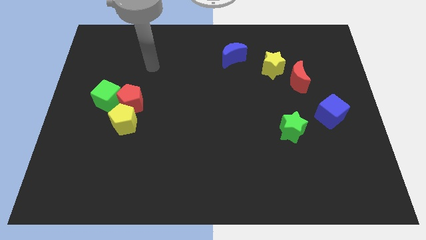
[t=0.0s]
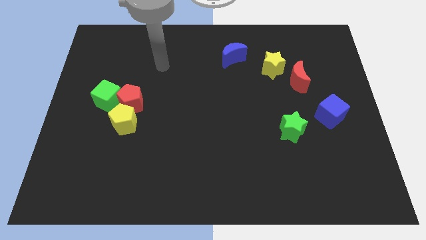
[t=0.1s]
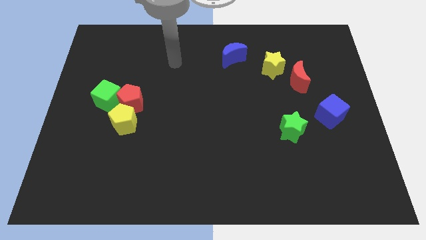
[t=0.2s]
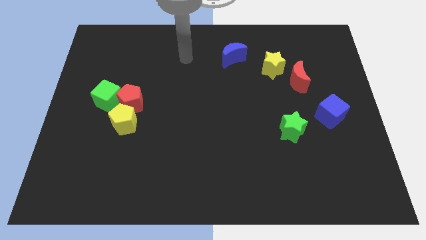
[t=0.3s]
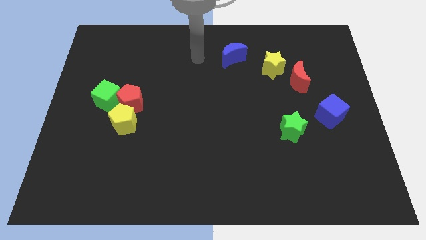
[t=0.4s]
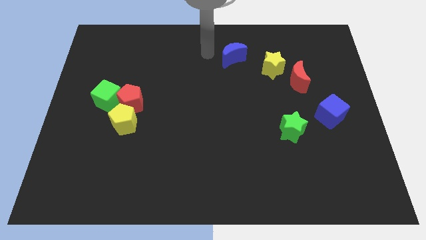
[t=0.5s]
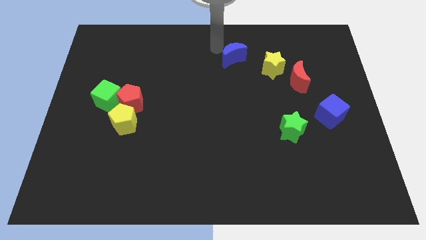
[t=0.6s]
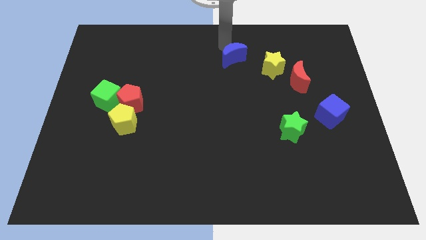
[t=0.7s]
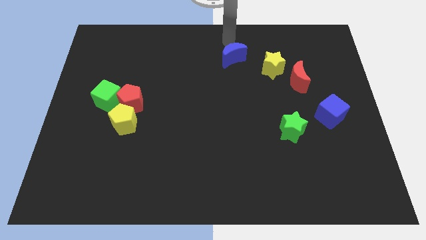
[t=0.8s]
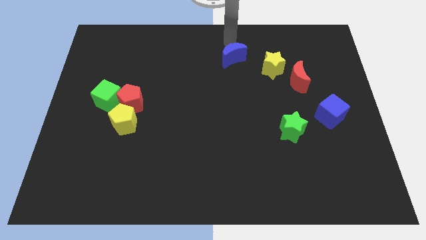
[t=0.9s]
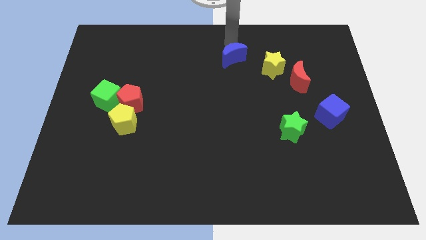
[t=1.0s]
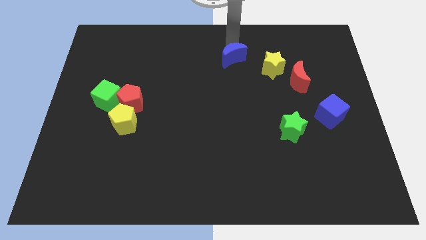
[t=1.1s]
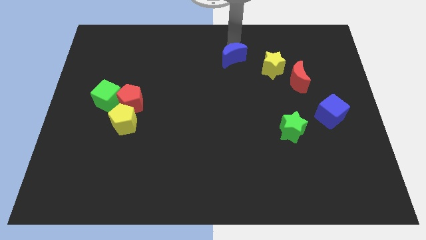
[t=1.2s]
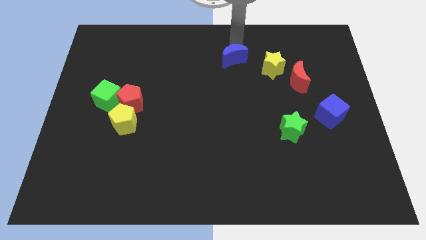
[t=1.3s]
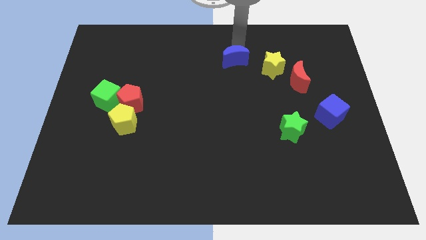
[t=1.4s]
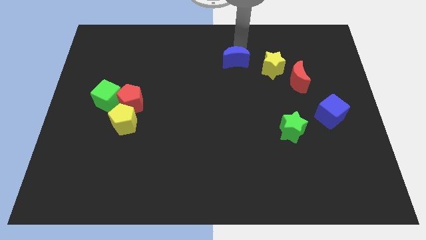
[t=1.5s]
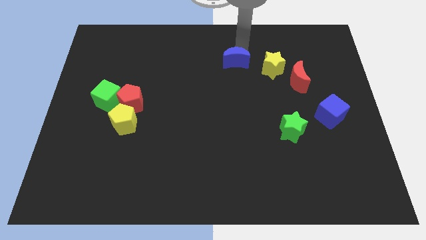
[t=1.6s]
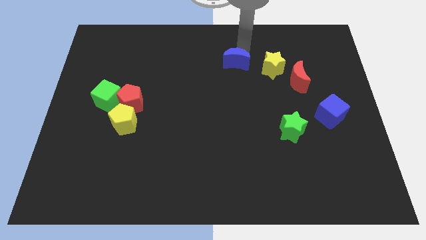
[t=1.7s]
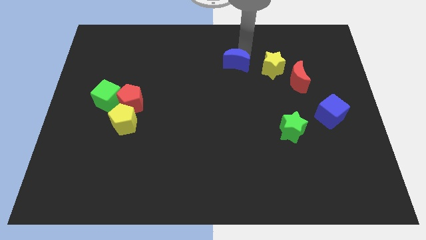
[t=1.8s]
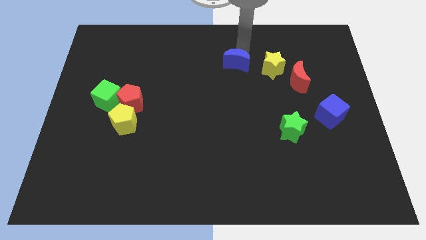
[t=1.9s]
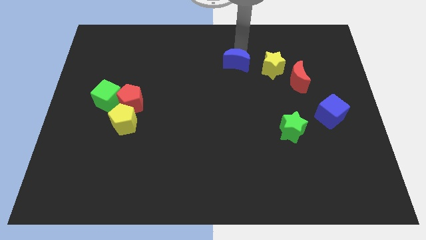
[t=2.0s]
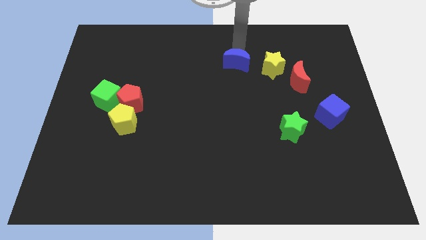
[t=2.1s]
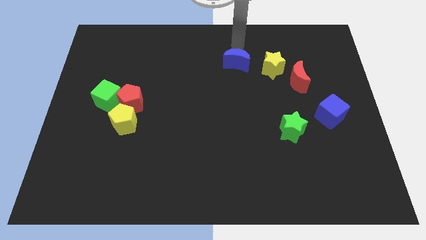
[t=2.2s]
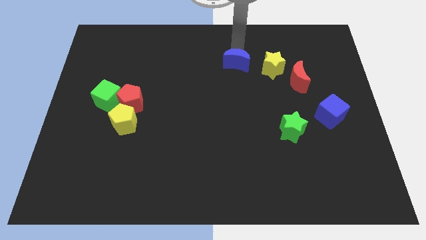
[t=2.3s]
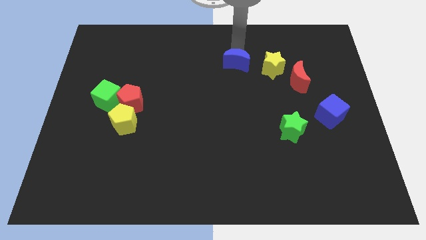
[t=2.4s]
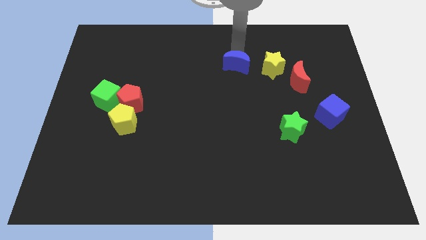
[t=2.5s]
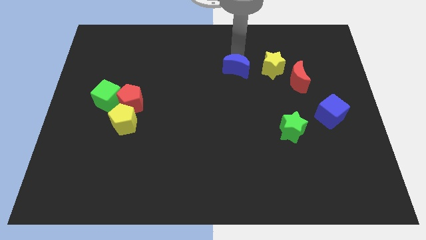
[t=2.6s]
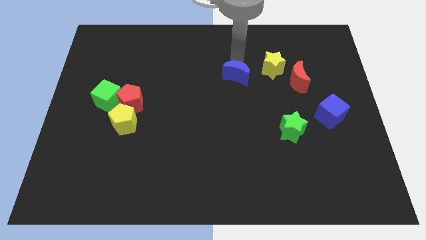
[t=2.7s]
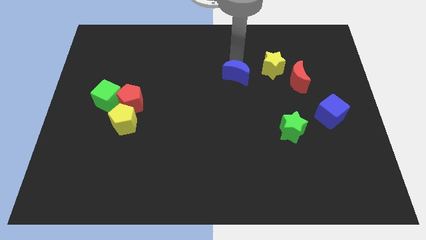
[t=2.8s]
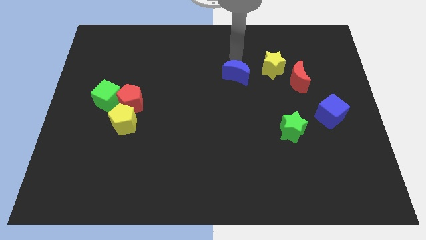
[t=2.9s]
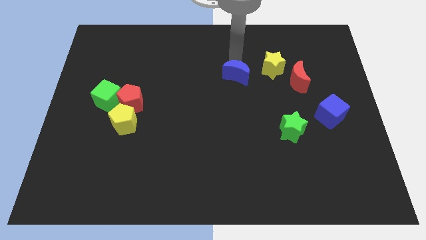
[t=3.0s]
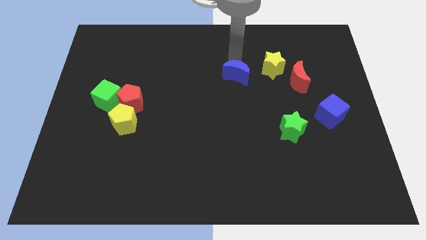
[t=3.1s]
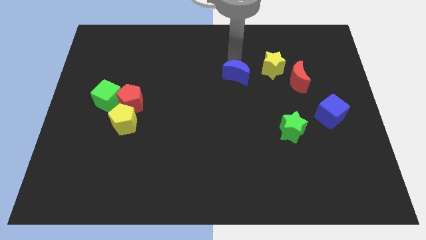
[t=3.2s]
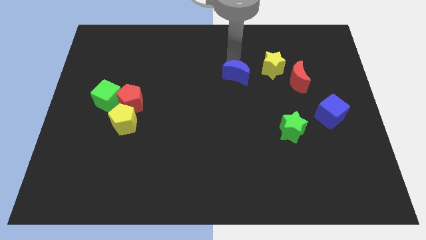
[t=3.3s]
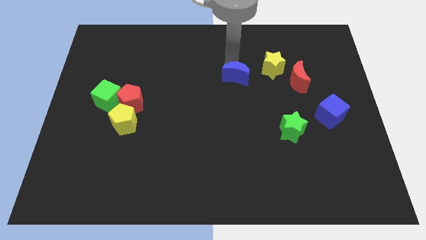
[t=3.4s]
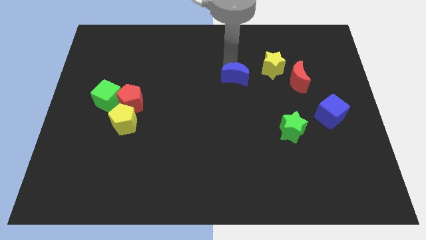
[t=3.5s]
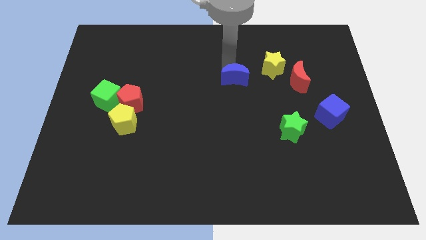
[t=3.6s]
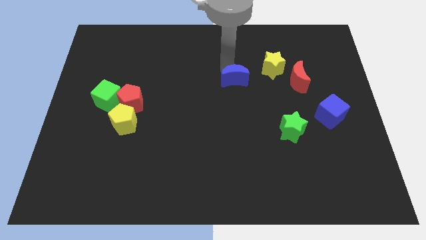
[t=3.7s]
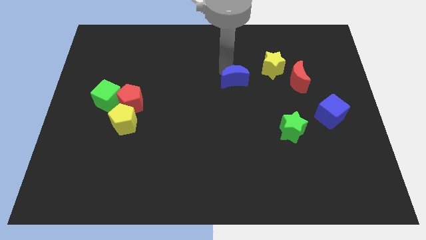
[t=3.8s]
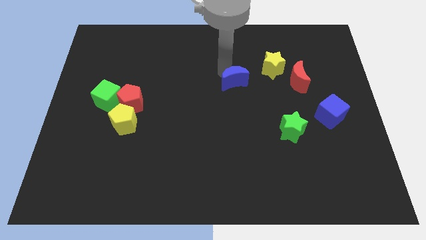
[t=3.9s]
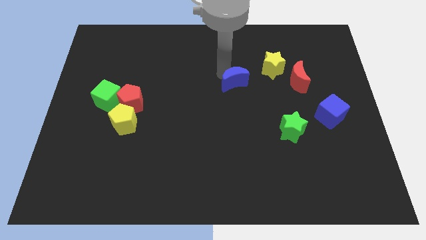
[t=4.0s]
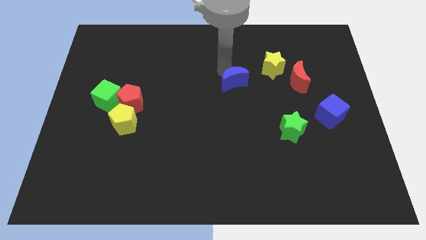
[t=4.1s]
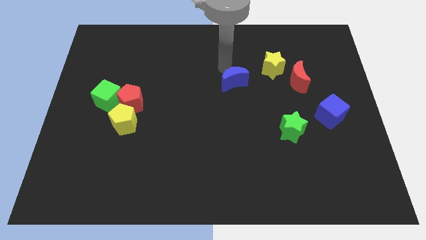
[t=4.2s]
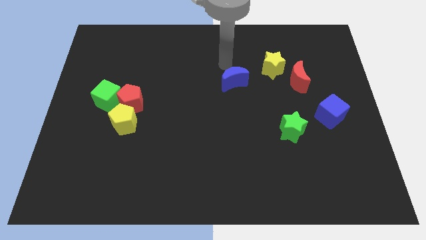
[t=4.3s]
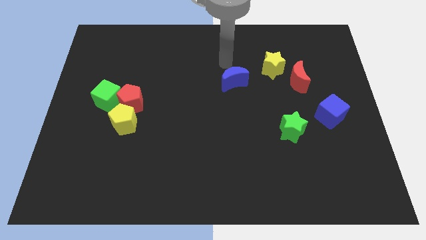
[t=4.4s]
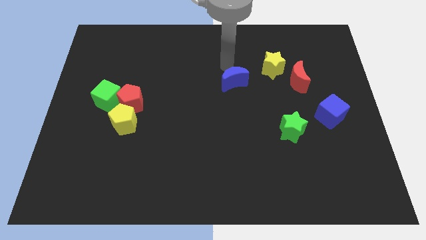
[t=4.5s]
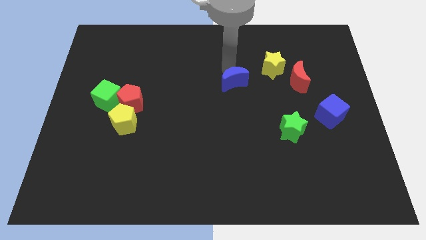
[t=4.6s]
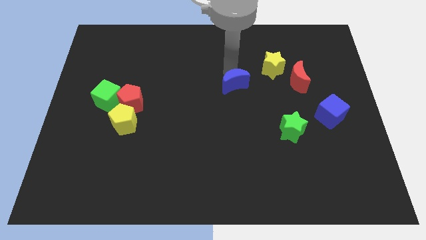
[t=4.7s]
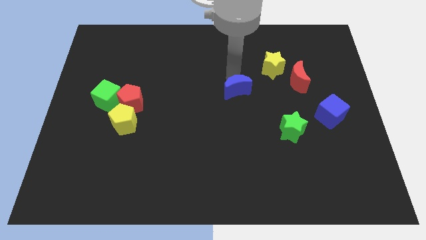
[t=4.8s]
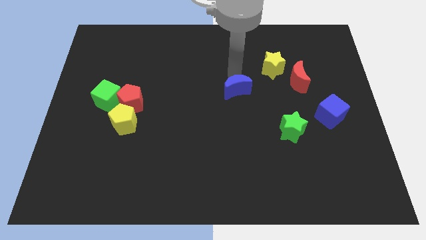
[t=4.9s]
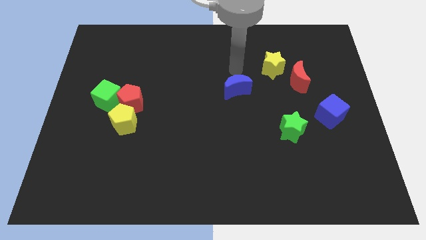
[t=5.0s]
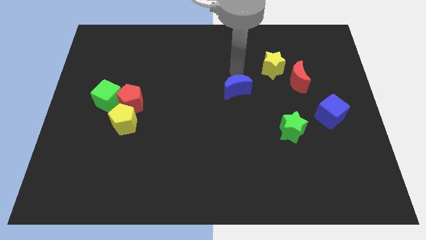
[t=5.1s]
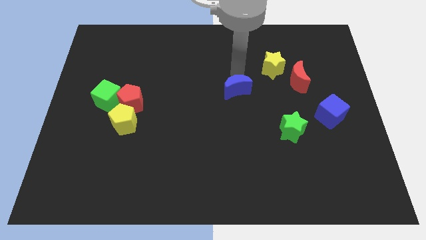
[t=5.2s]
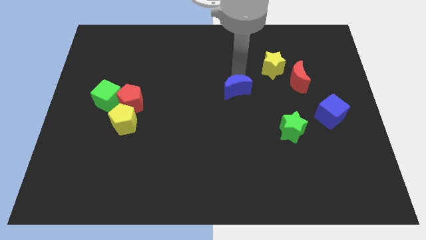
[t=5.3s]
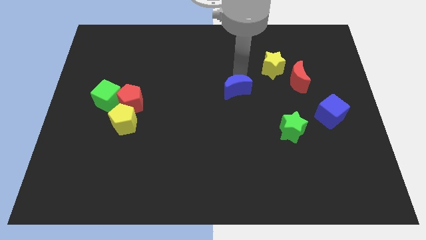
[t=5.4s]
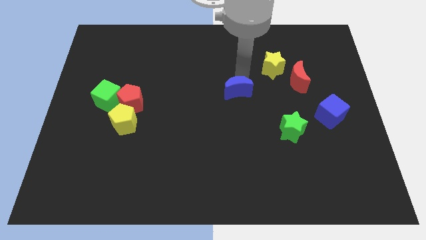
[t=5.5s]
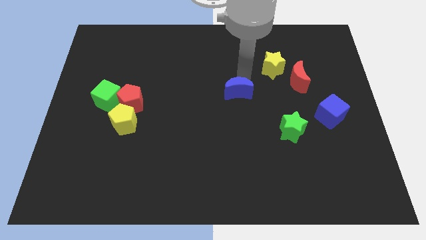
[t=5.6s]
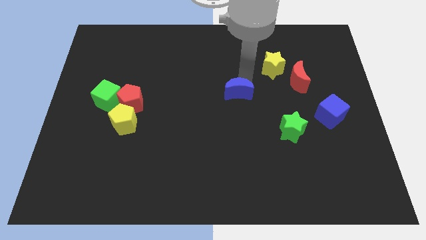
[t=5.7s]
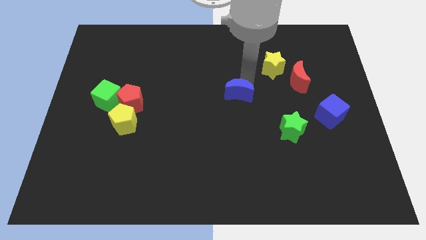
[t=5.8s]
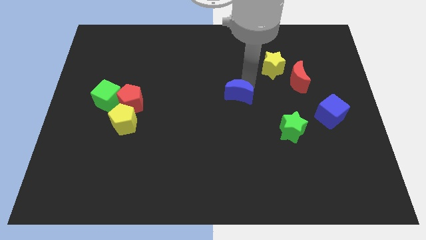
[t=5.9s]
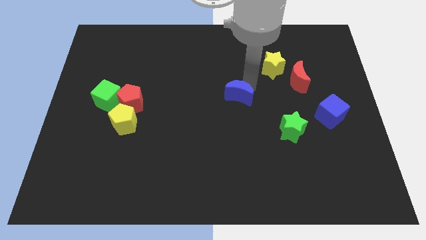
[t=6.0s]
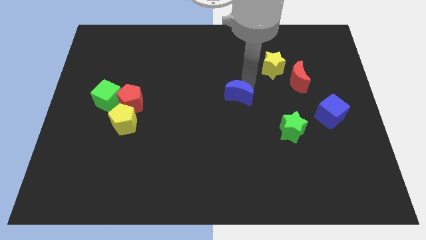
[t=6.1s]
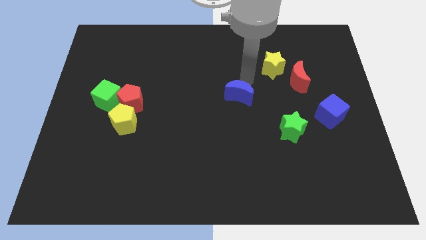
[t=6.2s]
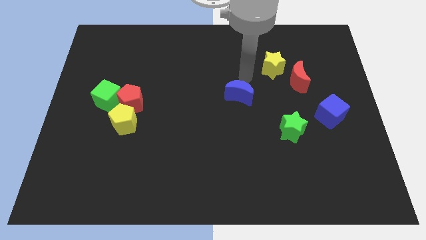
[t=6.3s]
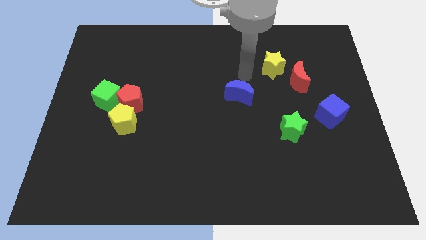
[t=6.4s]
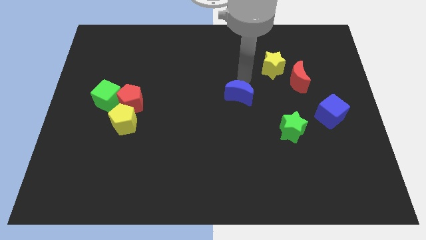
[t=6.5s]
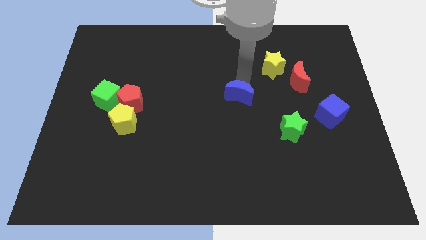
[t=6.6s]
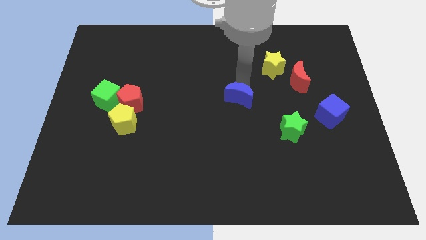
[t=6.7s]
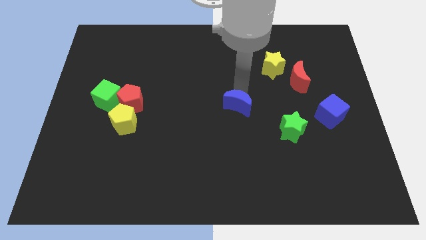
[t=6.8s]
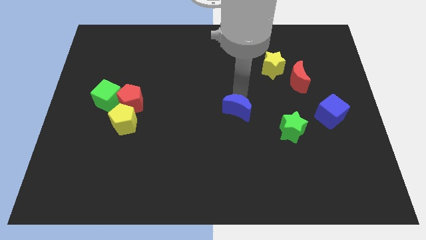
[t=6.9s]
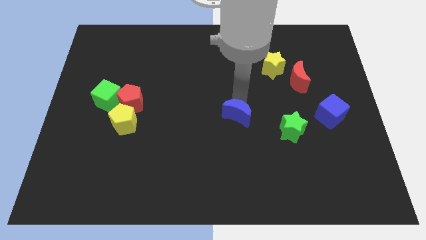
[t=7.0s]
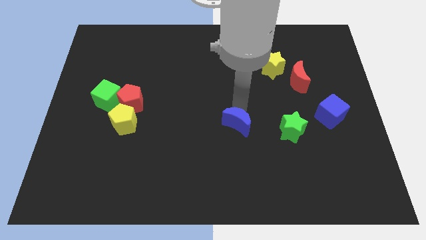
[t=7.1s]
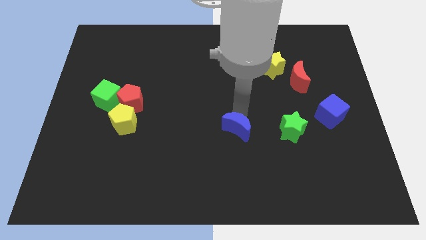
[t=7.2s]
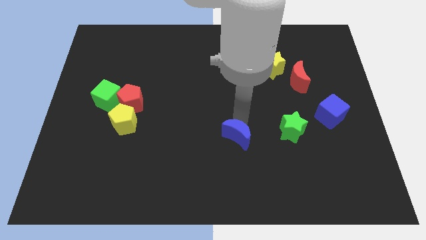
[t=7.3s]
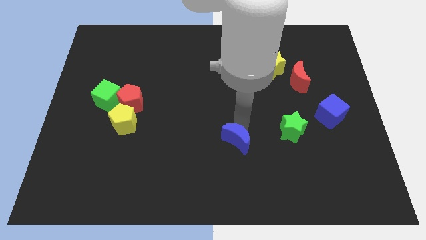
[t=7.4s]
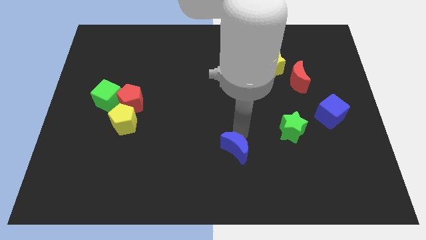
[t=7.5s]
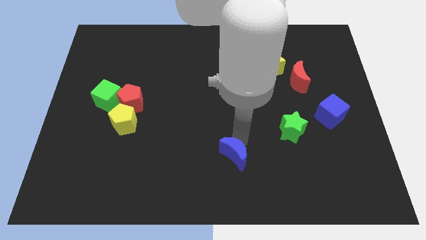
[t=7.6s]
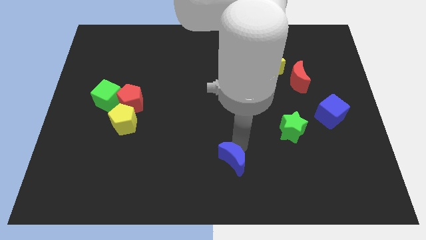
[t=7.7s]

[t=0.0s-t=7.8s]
slide the blue moon to the bottom
